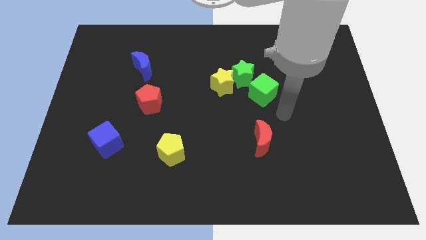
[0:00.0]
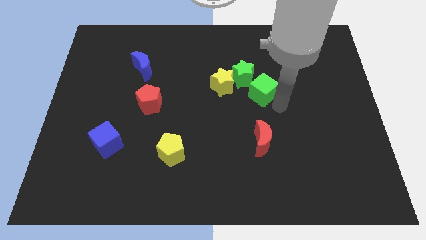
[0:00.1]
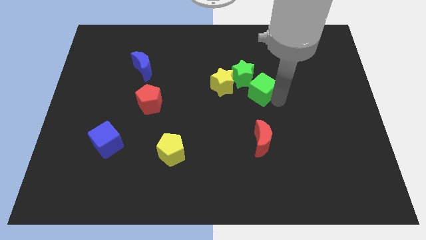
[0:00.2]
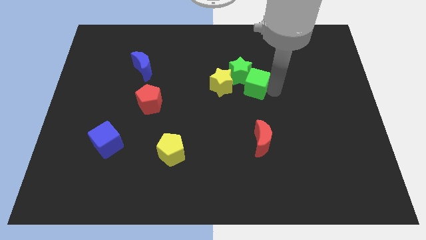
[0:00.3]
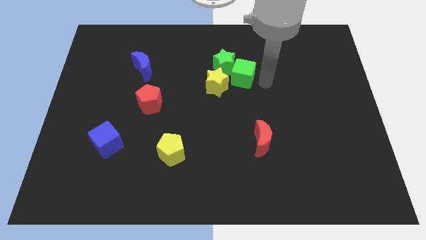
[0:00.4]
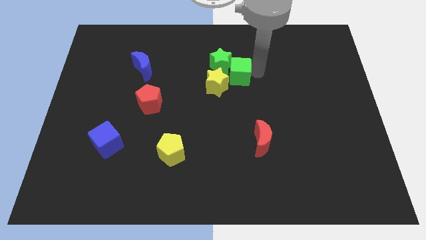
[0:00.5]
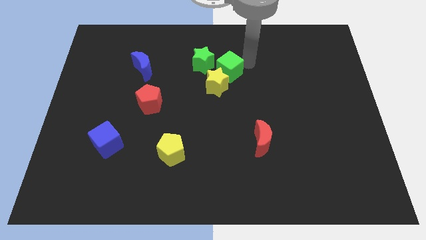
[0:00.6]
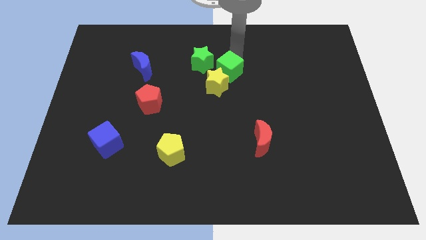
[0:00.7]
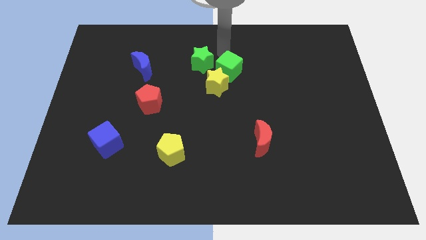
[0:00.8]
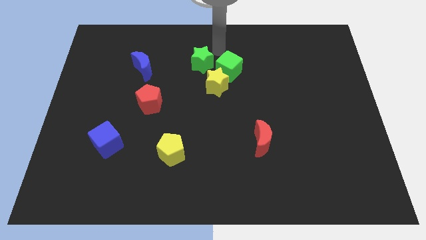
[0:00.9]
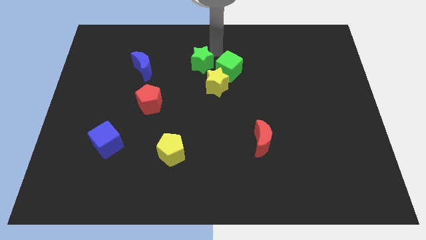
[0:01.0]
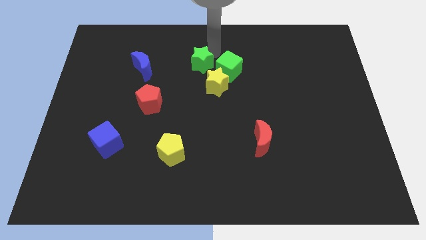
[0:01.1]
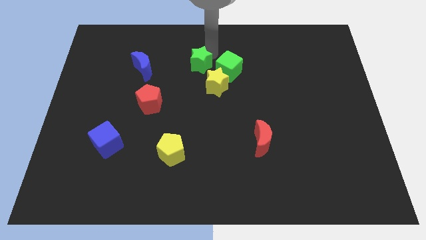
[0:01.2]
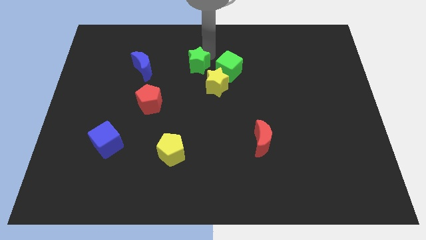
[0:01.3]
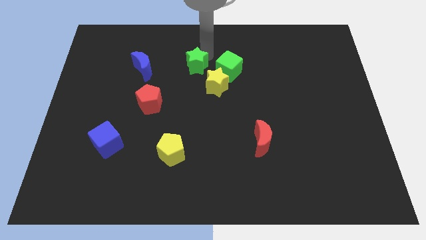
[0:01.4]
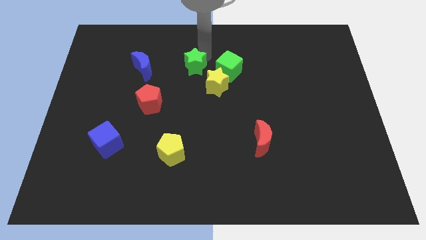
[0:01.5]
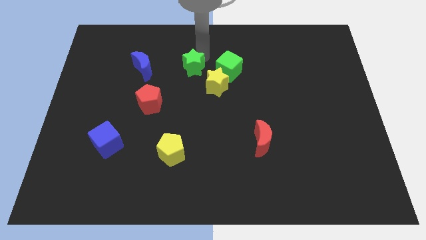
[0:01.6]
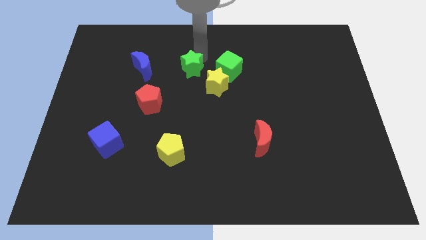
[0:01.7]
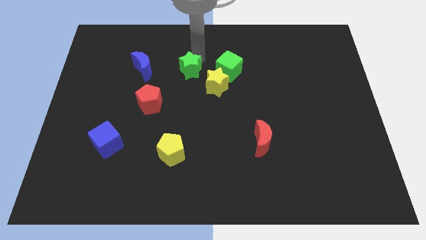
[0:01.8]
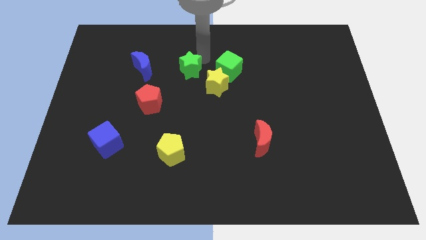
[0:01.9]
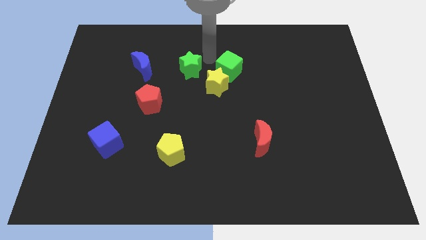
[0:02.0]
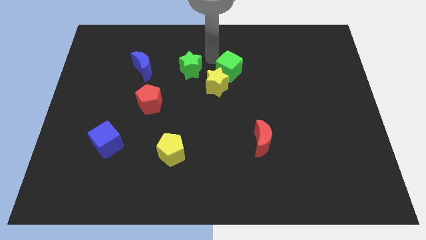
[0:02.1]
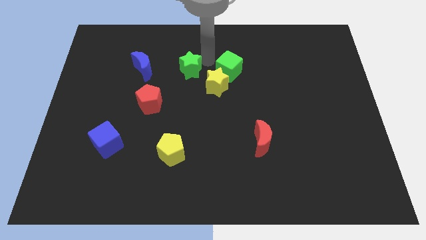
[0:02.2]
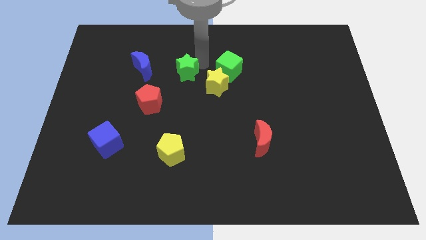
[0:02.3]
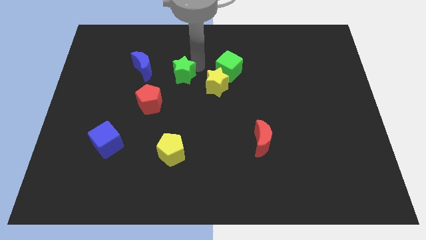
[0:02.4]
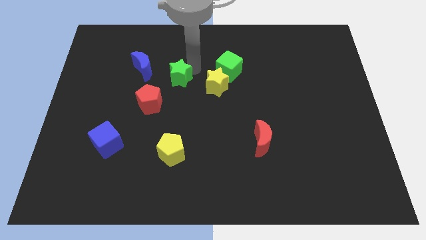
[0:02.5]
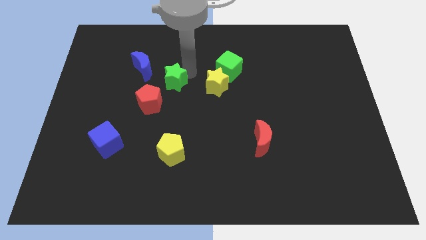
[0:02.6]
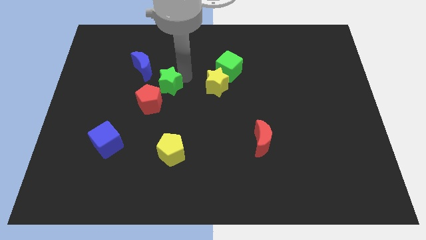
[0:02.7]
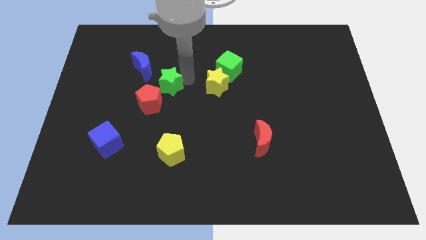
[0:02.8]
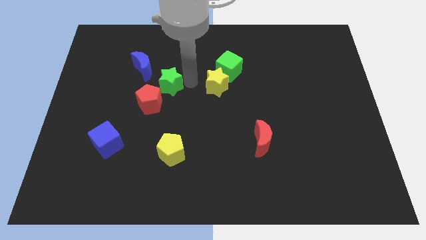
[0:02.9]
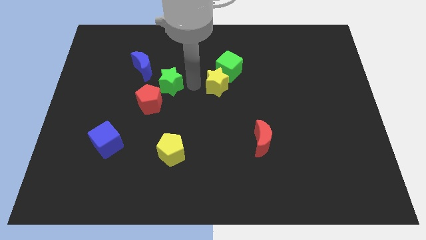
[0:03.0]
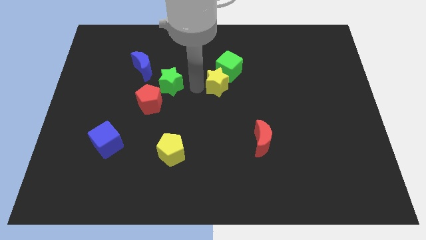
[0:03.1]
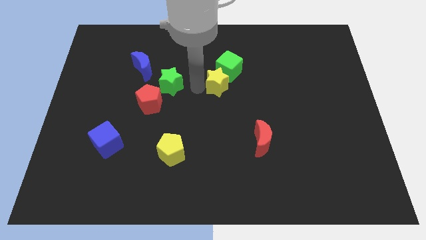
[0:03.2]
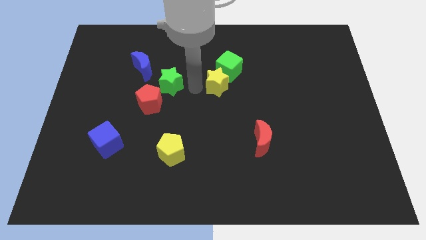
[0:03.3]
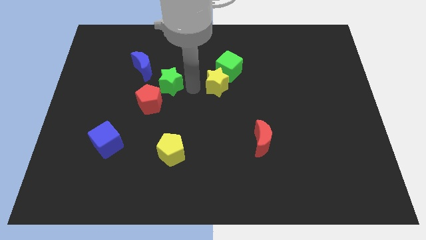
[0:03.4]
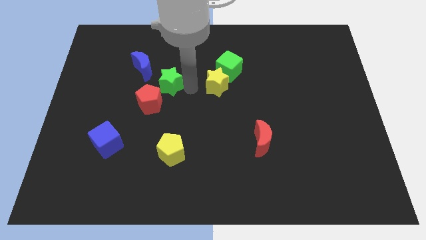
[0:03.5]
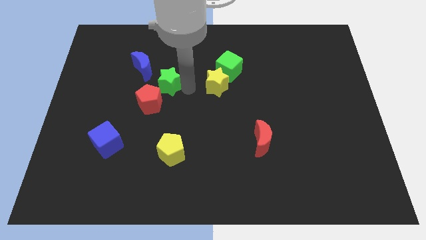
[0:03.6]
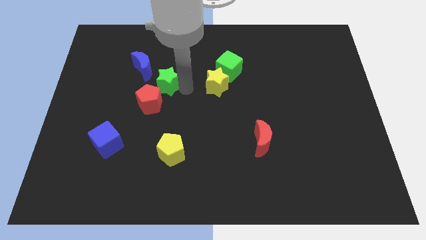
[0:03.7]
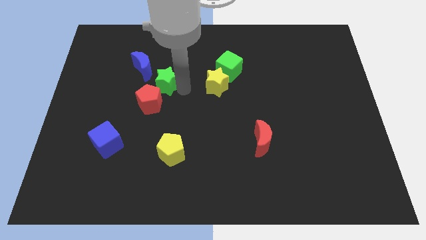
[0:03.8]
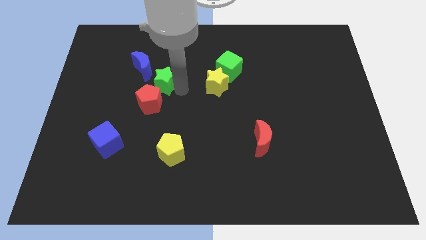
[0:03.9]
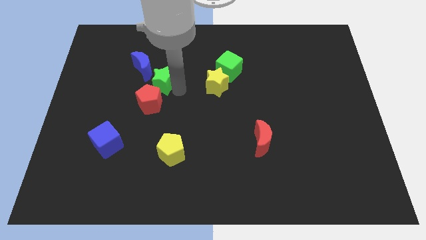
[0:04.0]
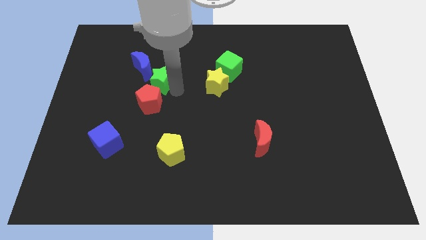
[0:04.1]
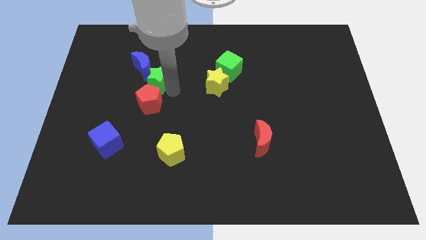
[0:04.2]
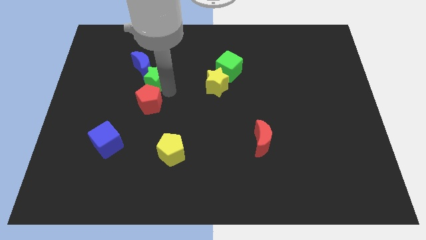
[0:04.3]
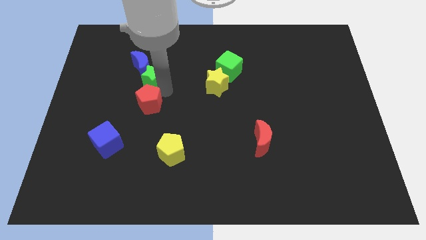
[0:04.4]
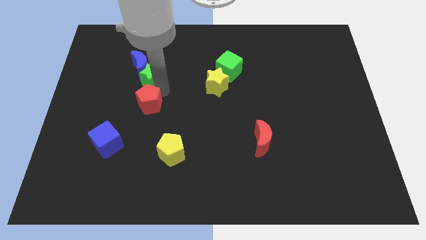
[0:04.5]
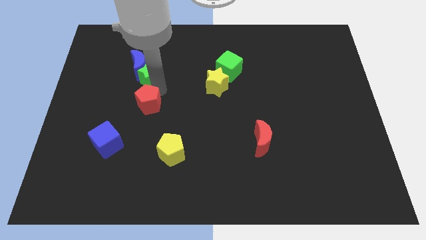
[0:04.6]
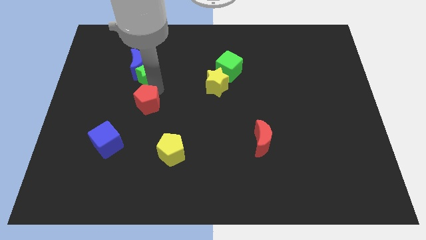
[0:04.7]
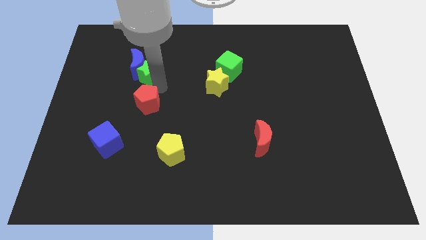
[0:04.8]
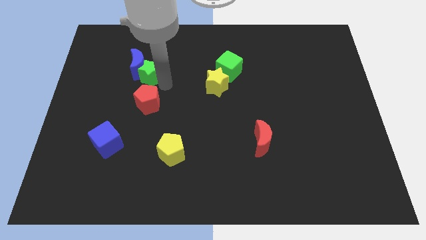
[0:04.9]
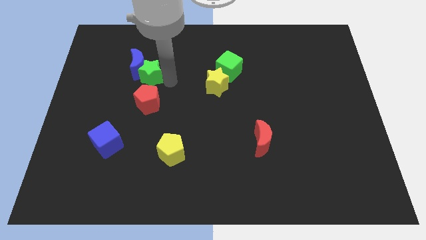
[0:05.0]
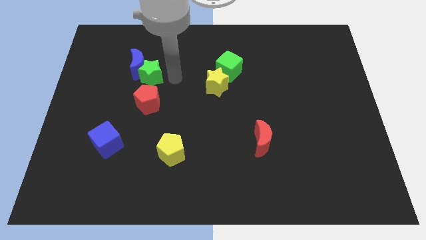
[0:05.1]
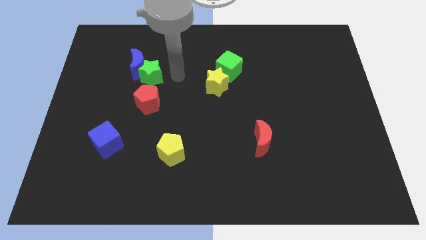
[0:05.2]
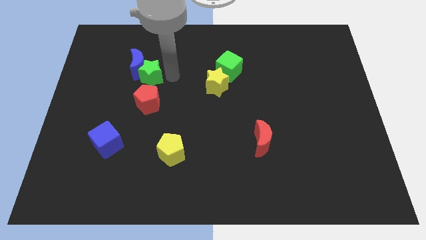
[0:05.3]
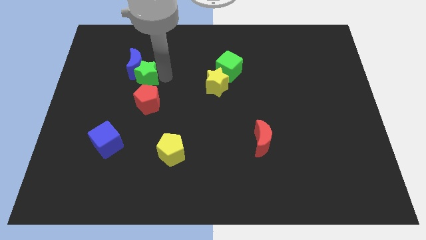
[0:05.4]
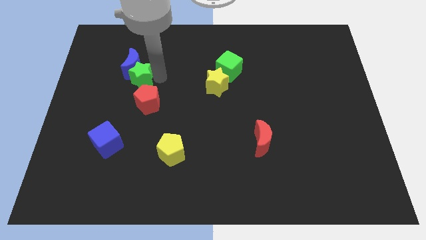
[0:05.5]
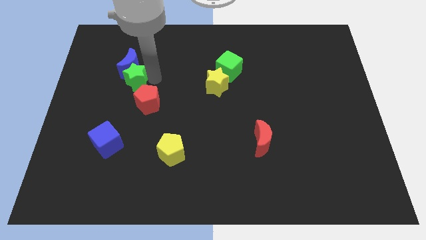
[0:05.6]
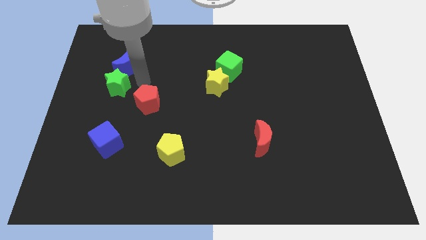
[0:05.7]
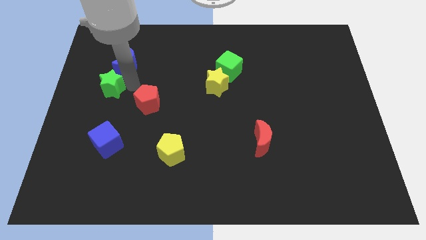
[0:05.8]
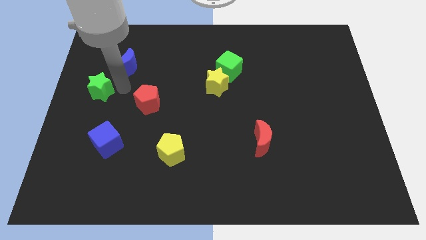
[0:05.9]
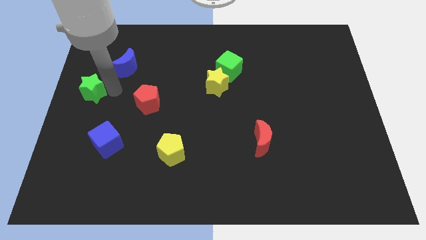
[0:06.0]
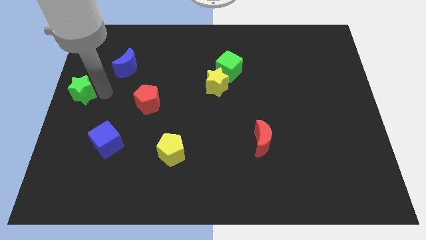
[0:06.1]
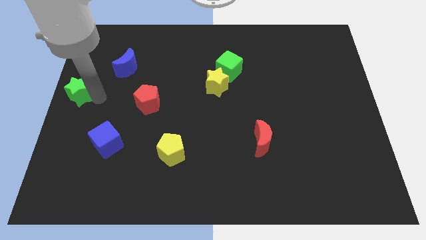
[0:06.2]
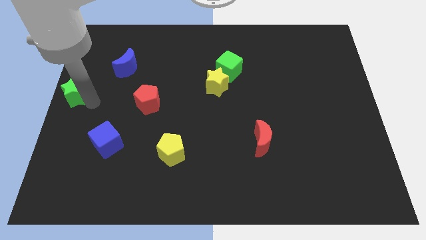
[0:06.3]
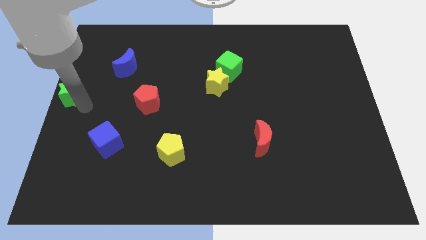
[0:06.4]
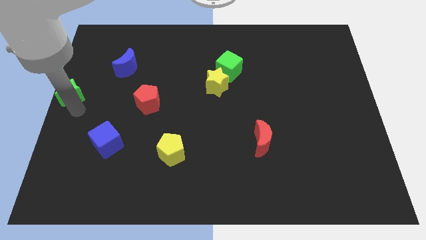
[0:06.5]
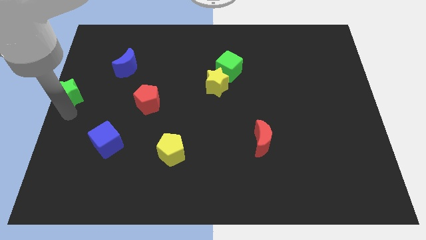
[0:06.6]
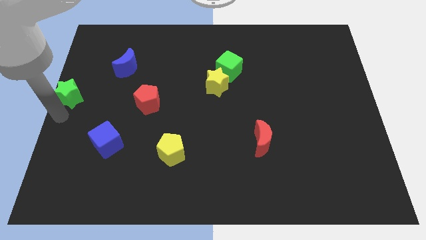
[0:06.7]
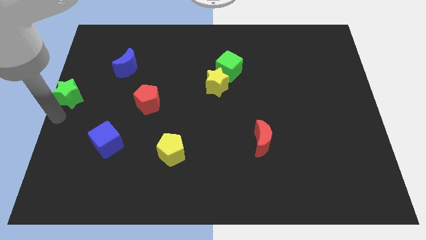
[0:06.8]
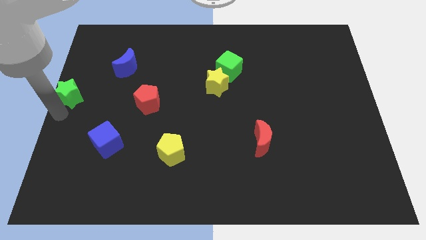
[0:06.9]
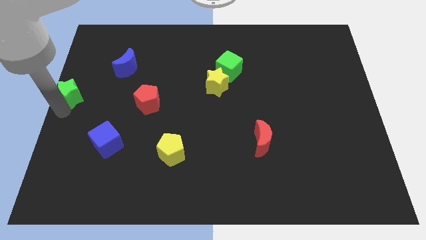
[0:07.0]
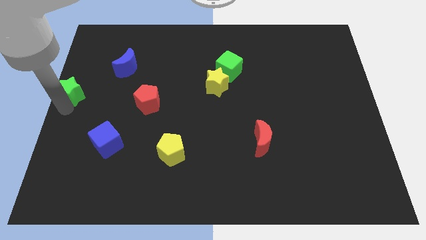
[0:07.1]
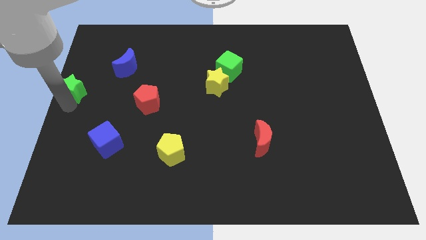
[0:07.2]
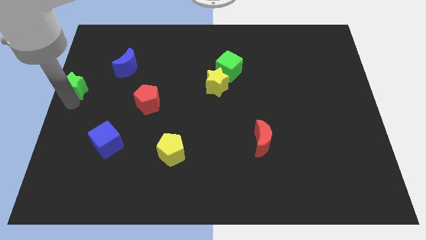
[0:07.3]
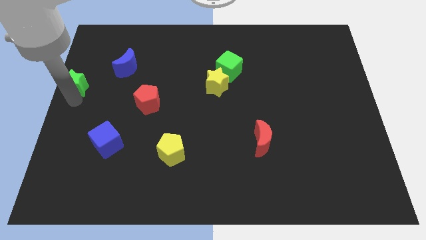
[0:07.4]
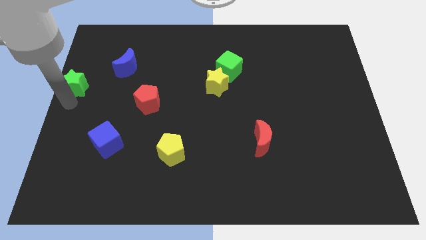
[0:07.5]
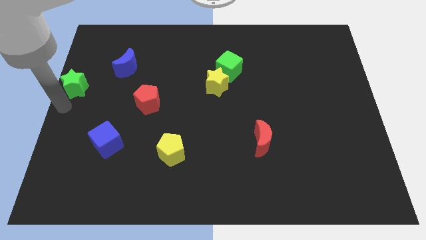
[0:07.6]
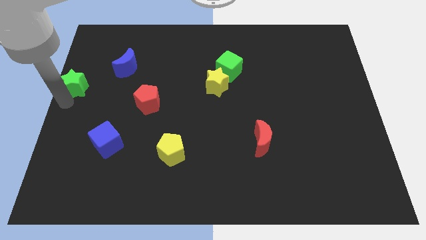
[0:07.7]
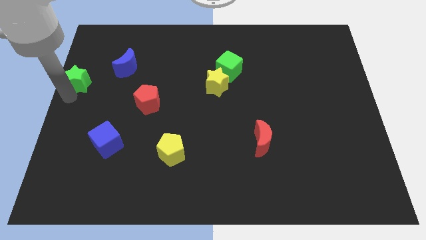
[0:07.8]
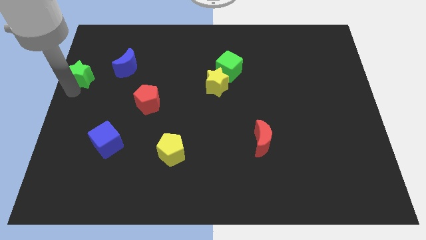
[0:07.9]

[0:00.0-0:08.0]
push the green star just left of the blue moon
